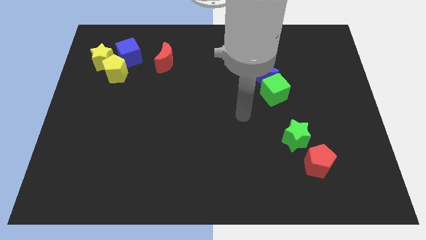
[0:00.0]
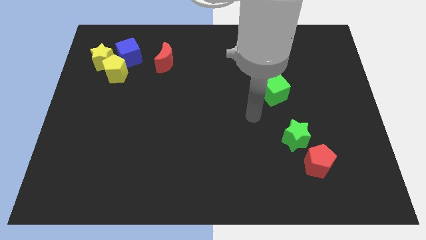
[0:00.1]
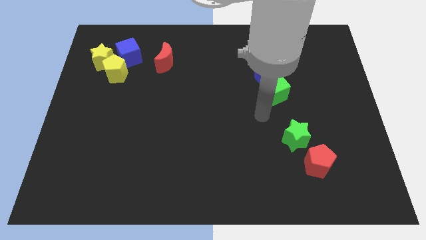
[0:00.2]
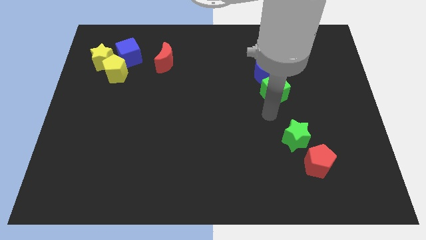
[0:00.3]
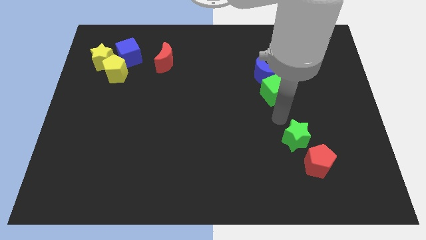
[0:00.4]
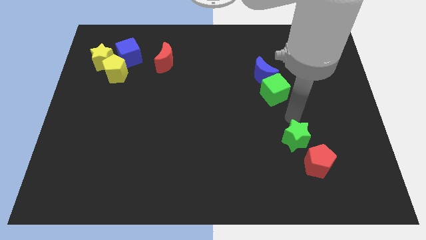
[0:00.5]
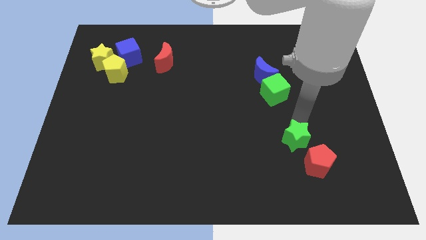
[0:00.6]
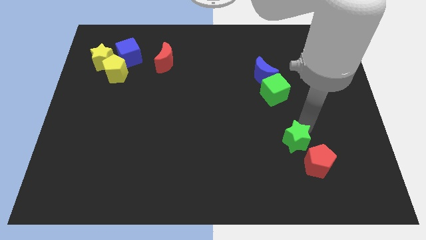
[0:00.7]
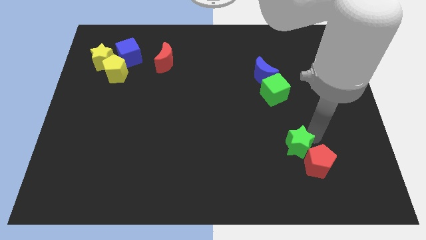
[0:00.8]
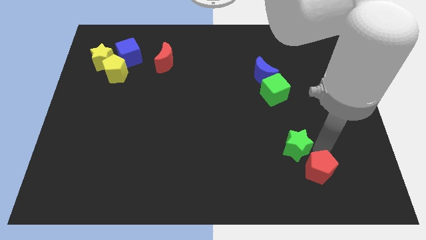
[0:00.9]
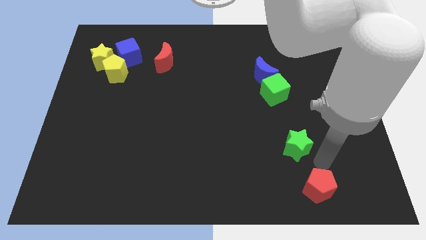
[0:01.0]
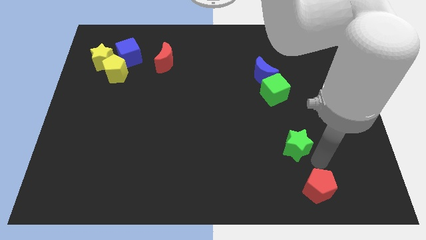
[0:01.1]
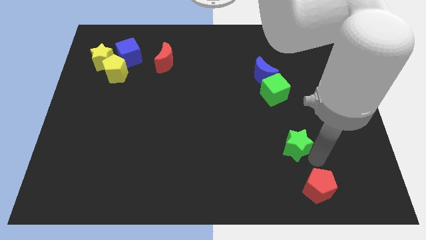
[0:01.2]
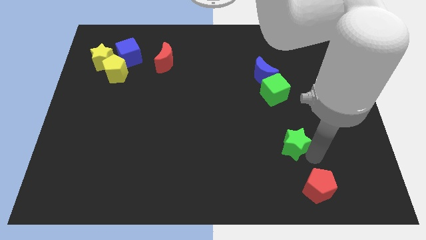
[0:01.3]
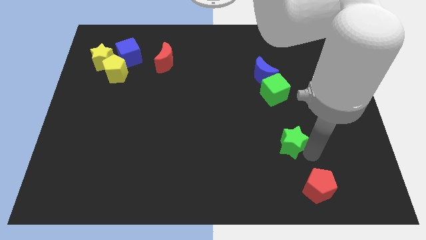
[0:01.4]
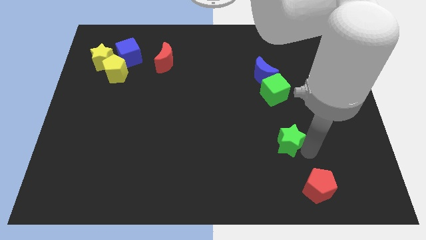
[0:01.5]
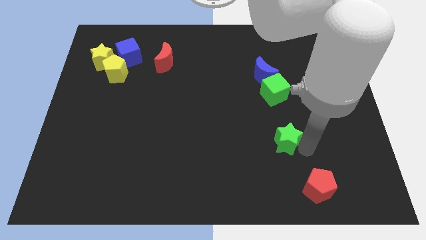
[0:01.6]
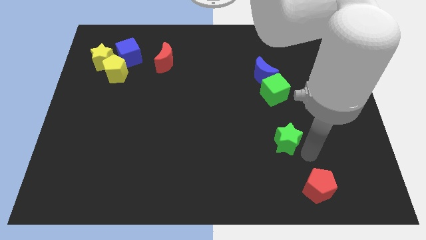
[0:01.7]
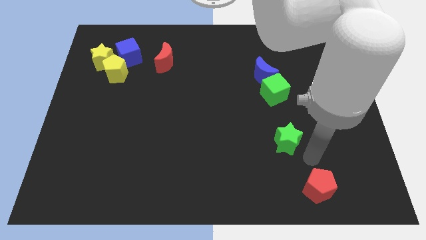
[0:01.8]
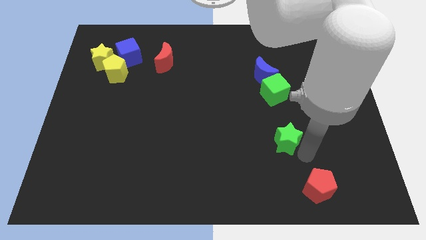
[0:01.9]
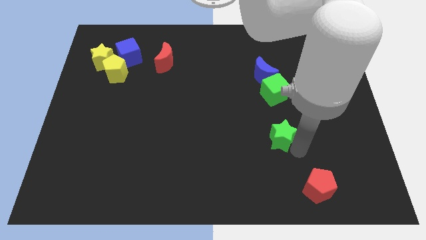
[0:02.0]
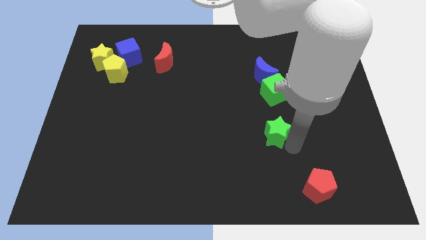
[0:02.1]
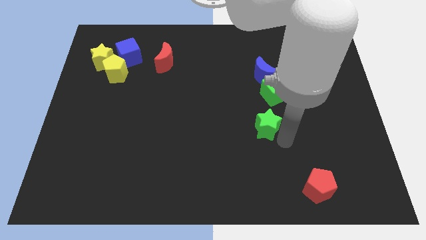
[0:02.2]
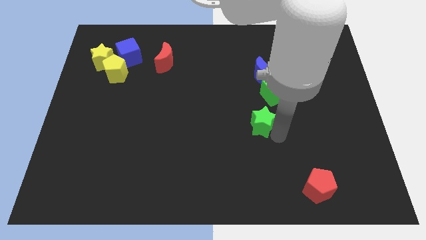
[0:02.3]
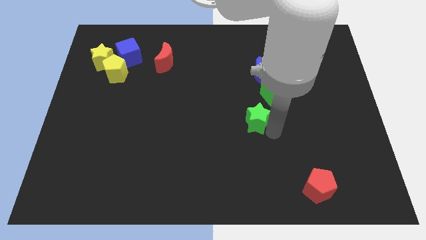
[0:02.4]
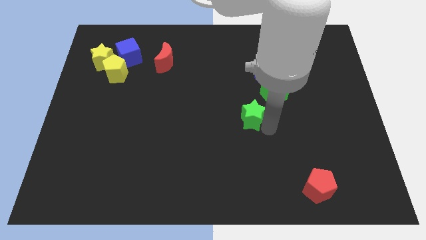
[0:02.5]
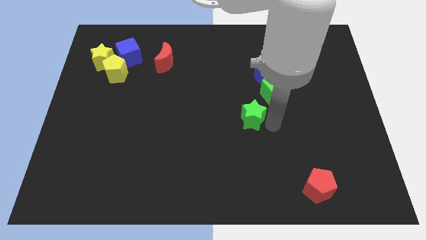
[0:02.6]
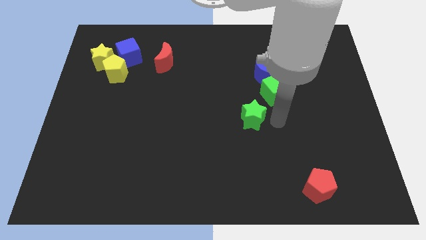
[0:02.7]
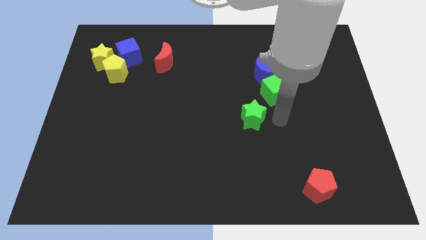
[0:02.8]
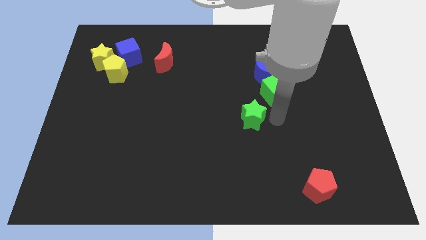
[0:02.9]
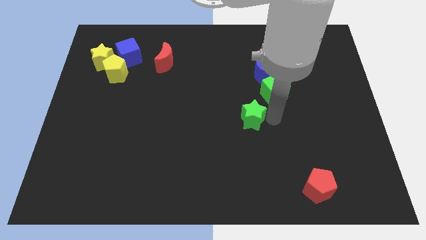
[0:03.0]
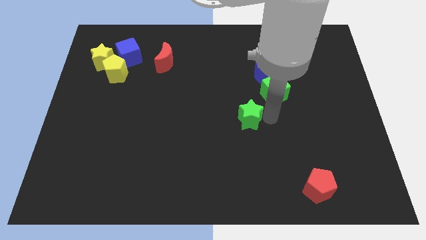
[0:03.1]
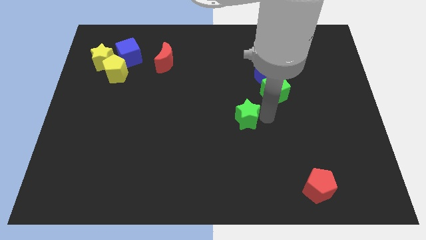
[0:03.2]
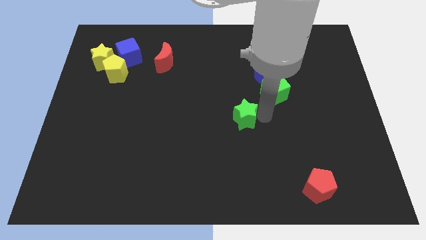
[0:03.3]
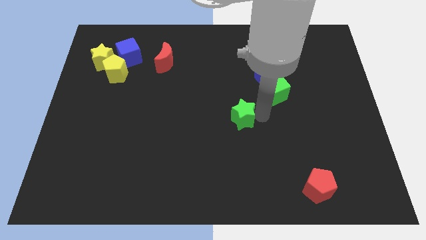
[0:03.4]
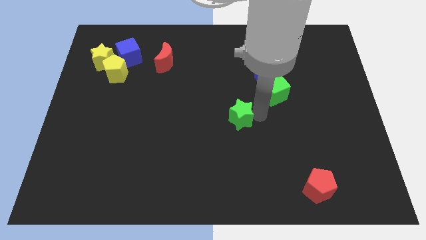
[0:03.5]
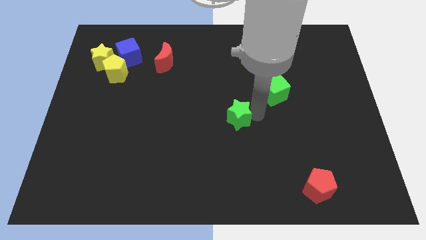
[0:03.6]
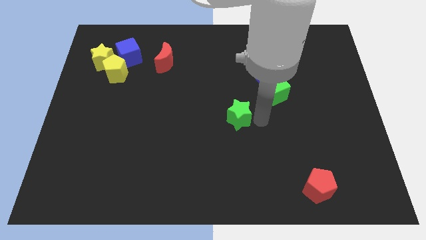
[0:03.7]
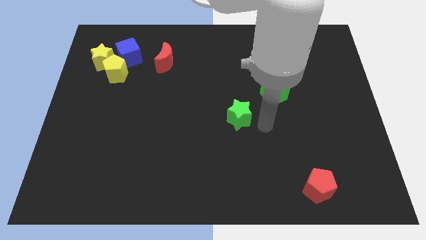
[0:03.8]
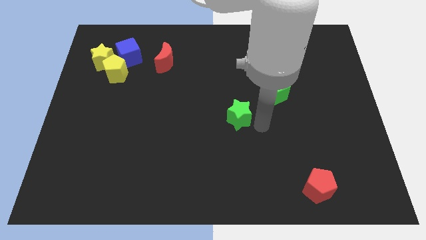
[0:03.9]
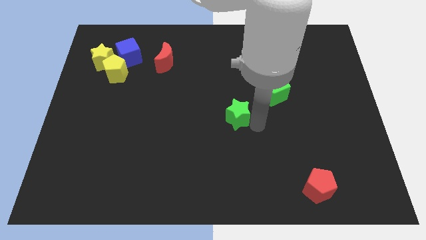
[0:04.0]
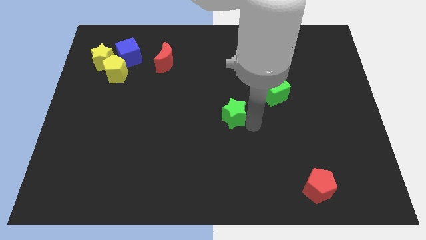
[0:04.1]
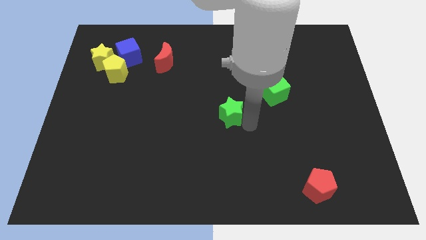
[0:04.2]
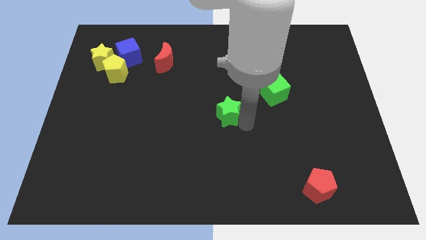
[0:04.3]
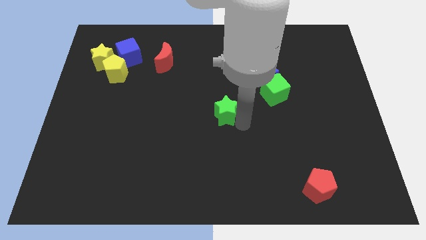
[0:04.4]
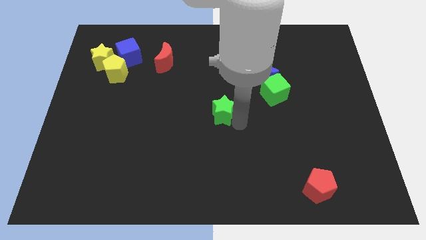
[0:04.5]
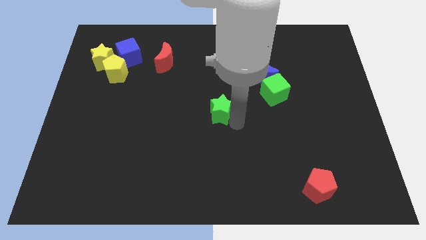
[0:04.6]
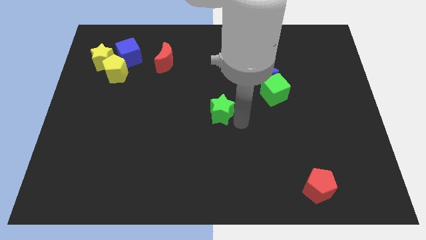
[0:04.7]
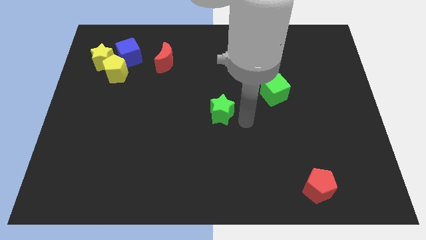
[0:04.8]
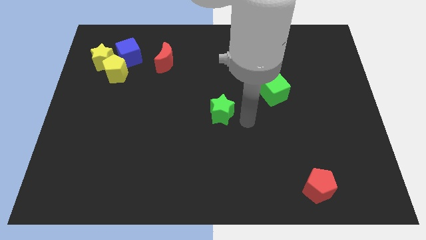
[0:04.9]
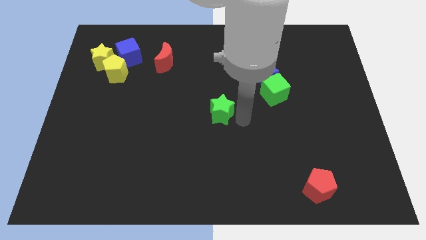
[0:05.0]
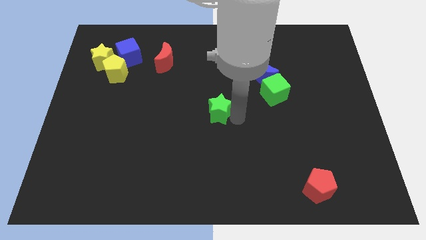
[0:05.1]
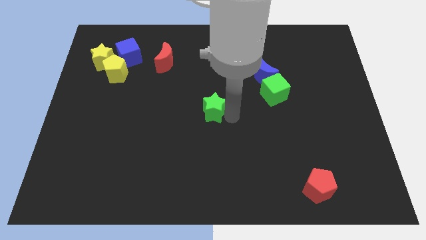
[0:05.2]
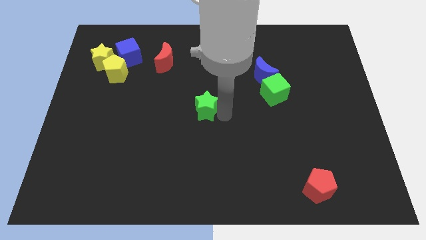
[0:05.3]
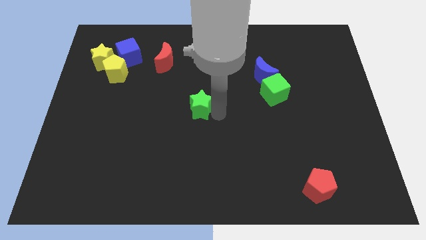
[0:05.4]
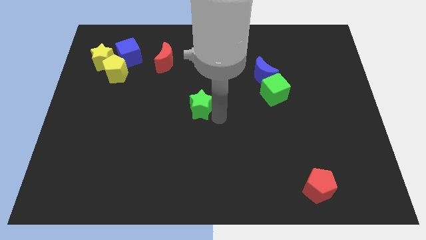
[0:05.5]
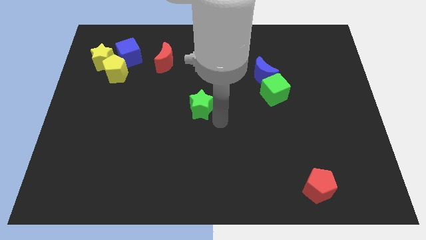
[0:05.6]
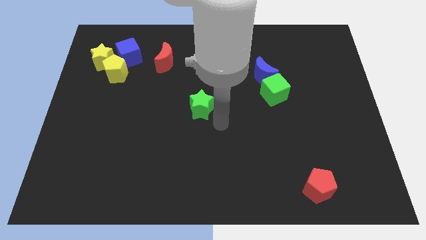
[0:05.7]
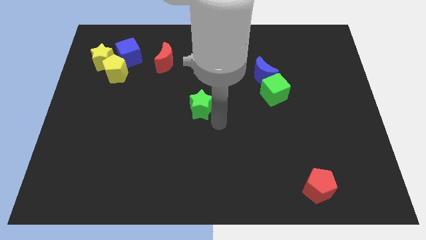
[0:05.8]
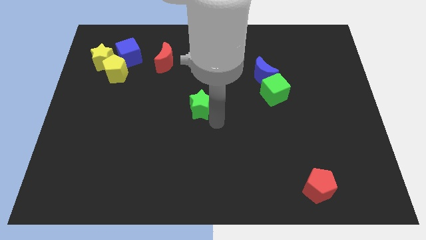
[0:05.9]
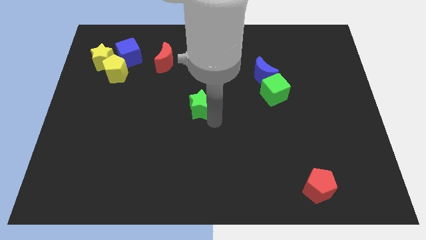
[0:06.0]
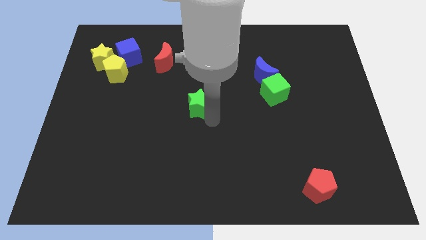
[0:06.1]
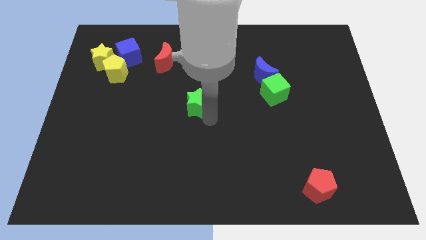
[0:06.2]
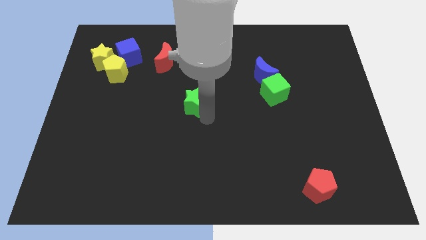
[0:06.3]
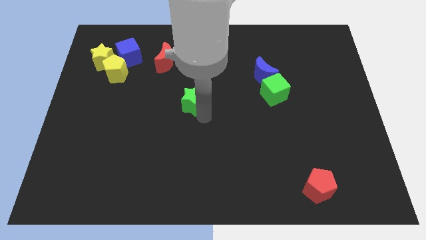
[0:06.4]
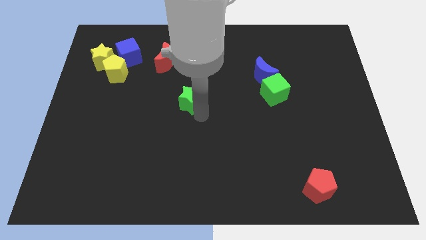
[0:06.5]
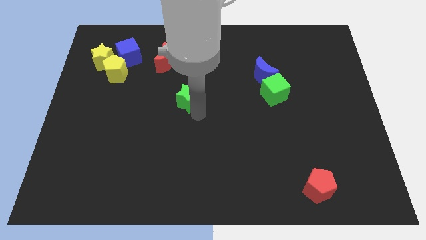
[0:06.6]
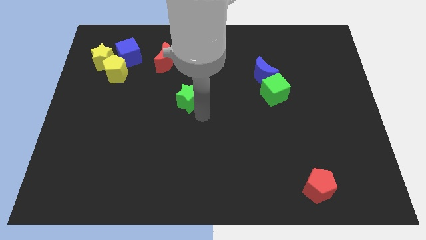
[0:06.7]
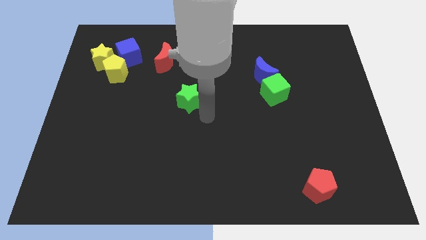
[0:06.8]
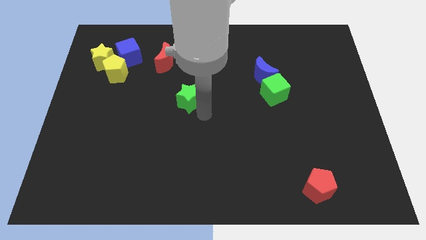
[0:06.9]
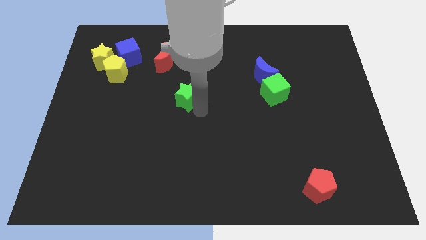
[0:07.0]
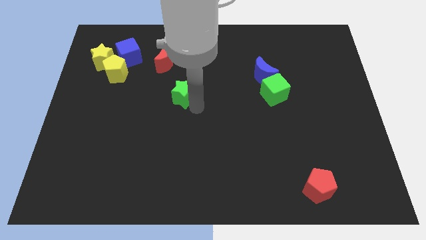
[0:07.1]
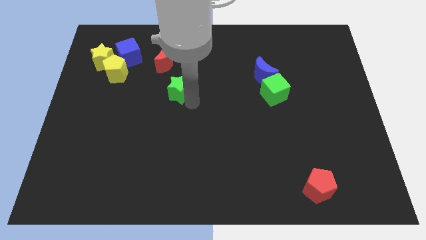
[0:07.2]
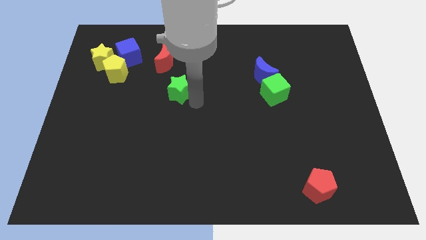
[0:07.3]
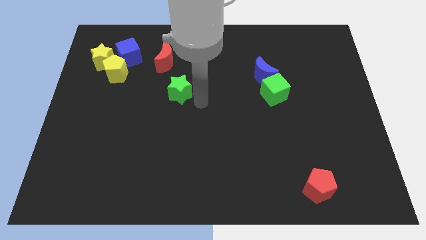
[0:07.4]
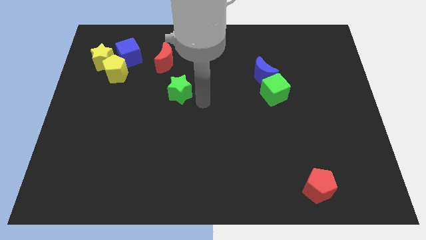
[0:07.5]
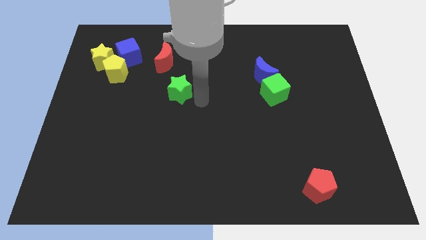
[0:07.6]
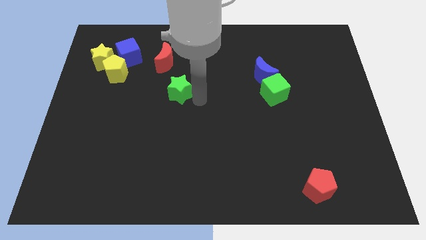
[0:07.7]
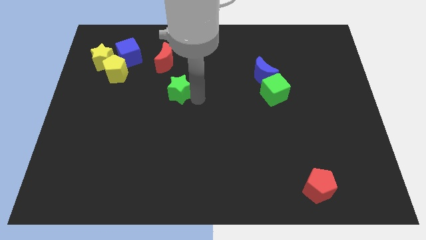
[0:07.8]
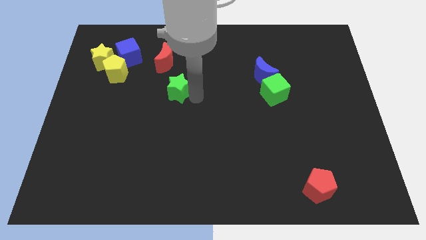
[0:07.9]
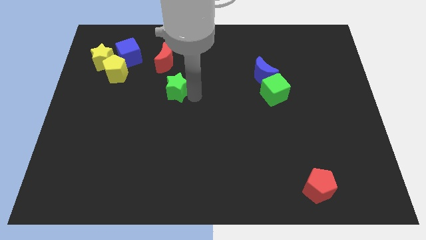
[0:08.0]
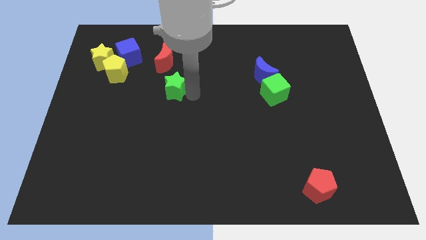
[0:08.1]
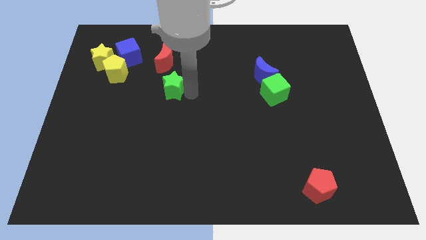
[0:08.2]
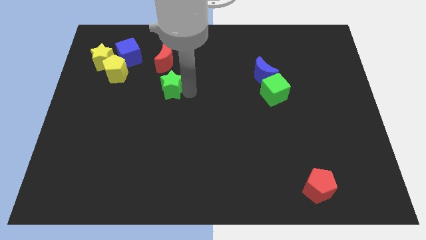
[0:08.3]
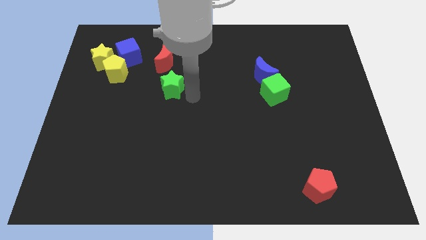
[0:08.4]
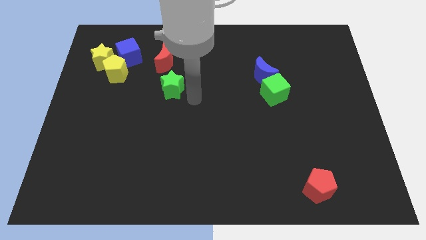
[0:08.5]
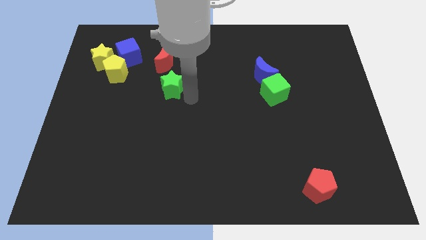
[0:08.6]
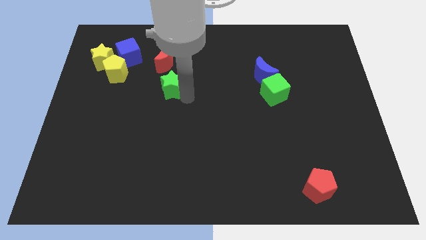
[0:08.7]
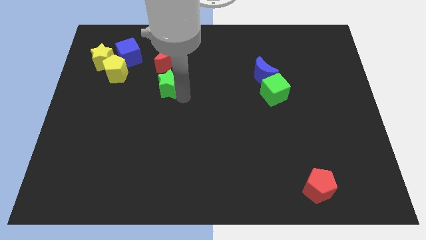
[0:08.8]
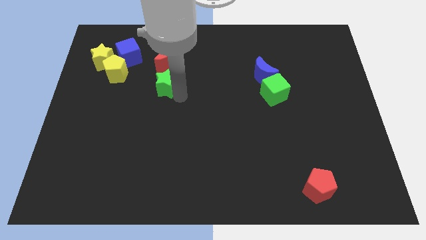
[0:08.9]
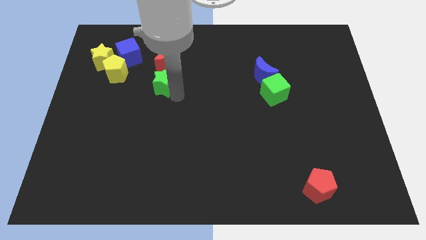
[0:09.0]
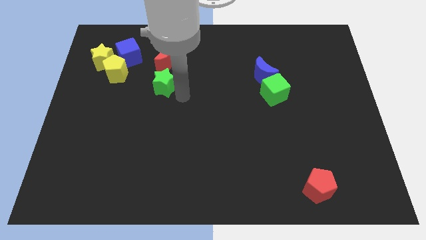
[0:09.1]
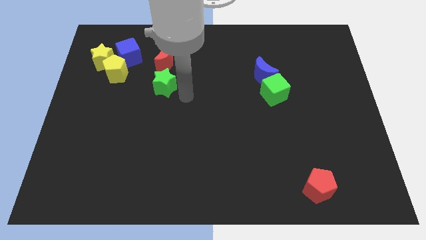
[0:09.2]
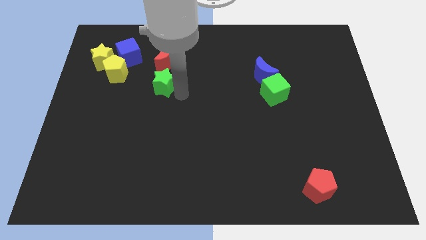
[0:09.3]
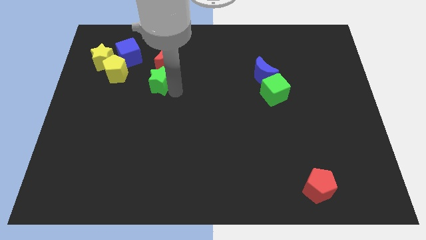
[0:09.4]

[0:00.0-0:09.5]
put the green star to the bottom left side of the red moon
